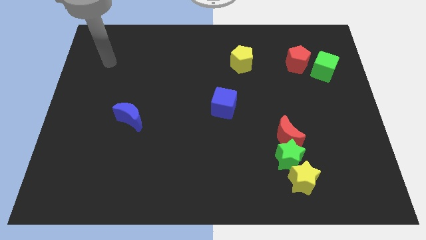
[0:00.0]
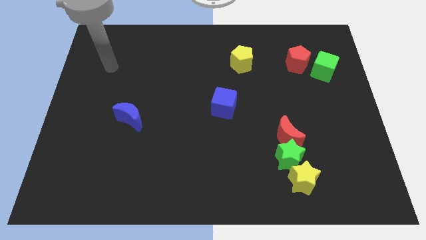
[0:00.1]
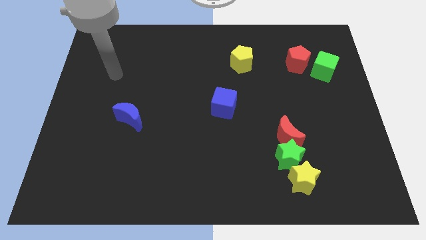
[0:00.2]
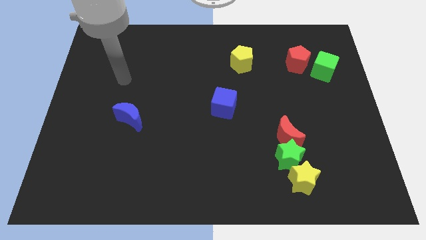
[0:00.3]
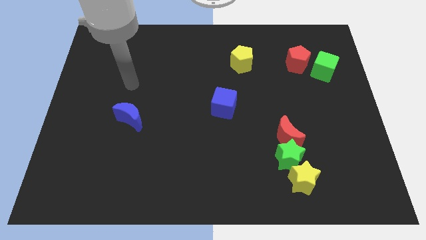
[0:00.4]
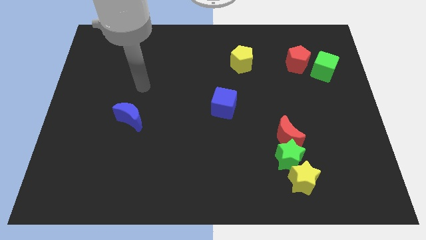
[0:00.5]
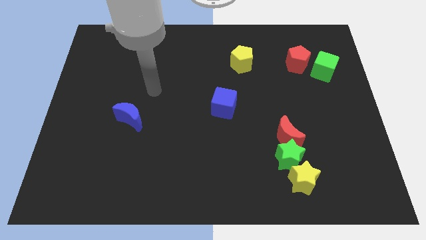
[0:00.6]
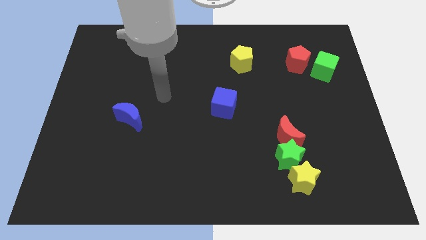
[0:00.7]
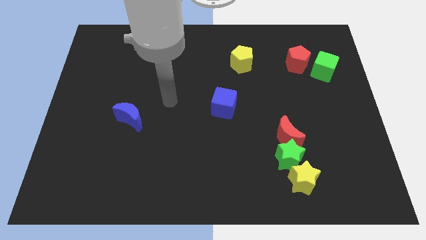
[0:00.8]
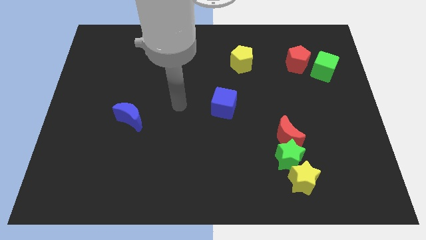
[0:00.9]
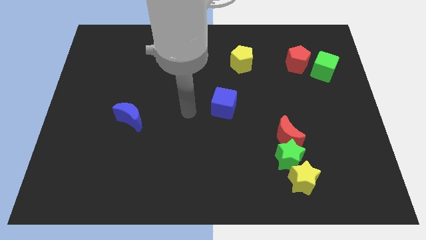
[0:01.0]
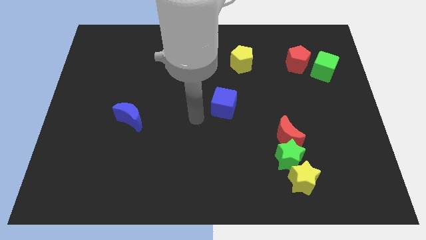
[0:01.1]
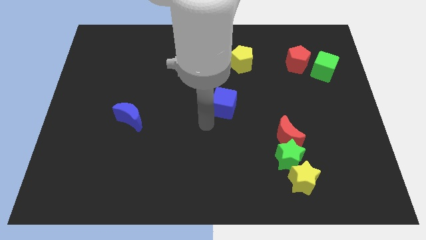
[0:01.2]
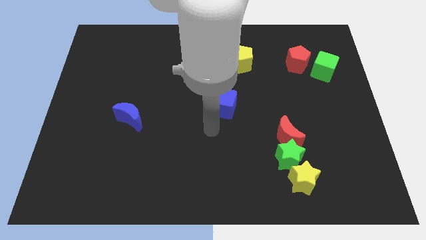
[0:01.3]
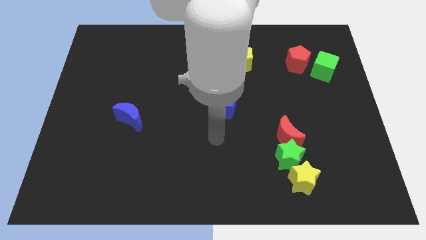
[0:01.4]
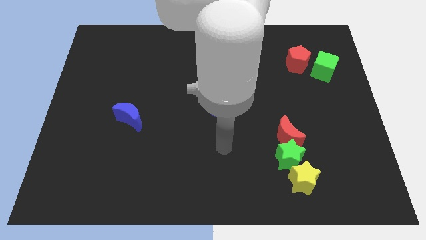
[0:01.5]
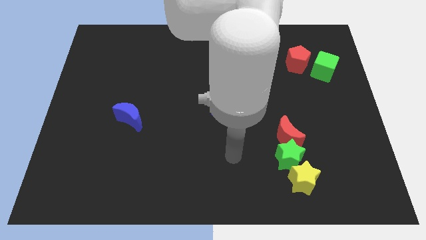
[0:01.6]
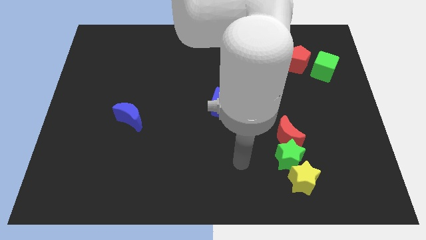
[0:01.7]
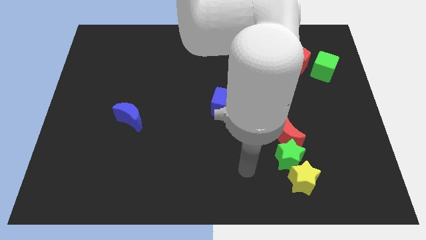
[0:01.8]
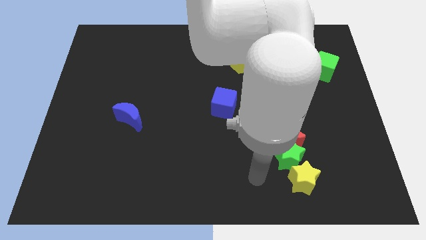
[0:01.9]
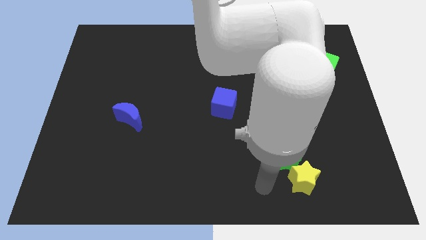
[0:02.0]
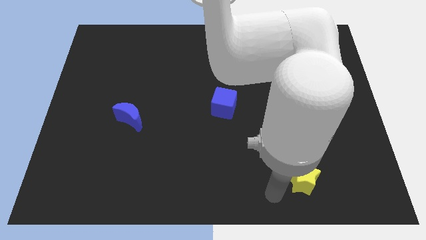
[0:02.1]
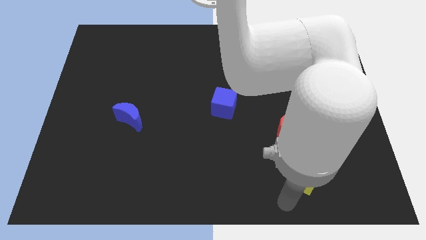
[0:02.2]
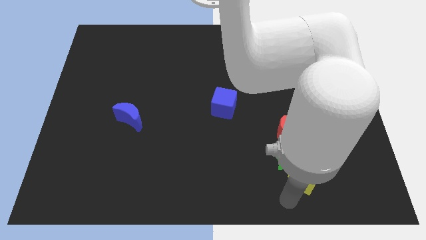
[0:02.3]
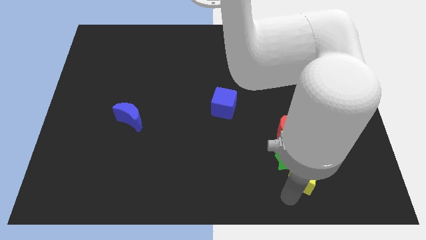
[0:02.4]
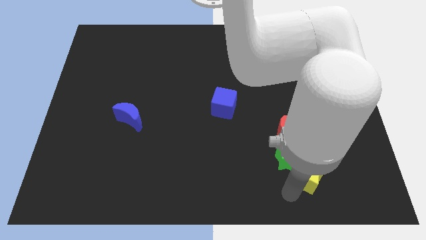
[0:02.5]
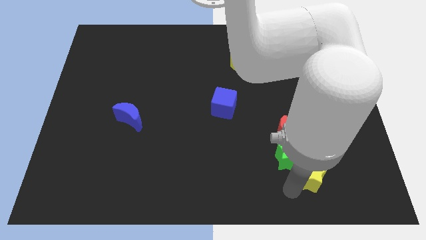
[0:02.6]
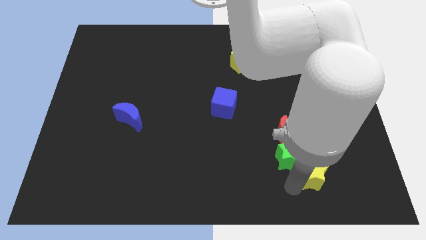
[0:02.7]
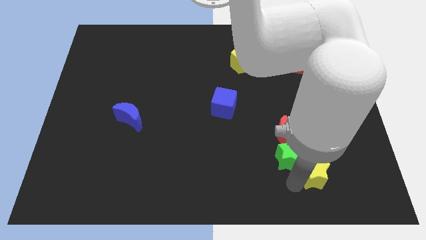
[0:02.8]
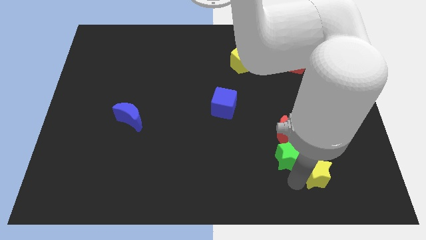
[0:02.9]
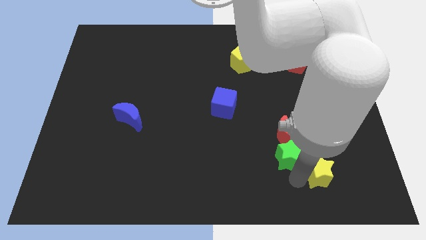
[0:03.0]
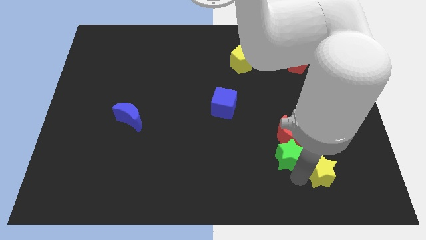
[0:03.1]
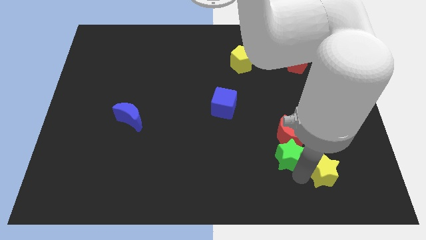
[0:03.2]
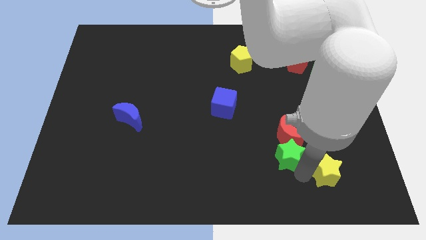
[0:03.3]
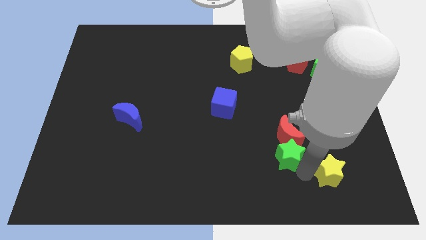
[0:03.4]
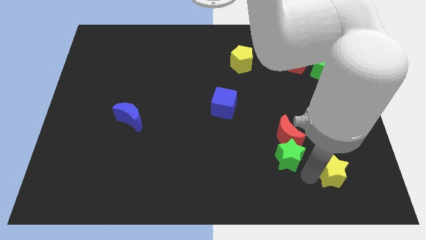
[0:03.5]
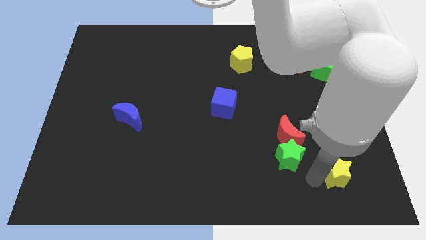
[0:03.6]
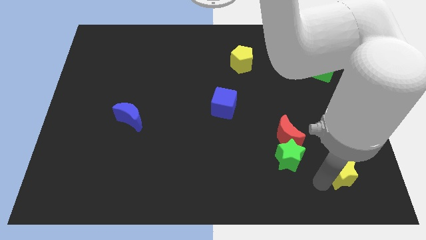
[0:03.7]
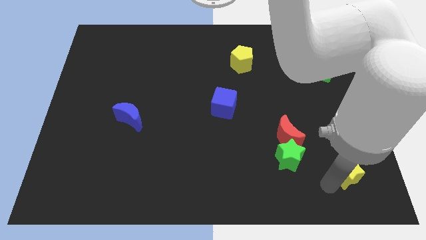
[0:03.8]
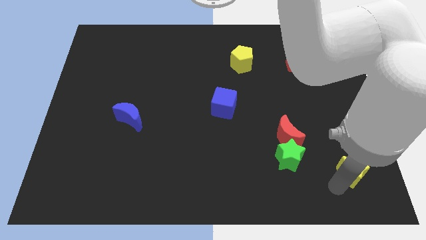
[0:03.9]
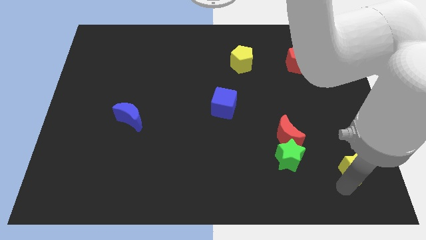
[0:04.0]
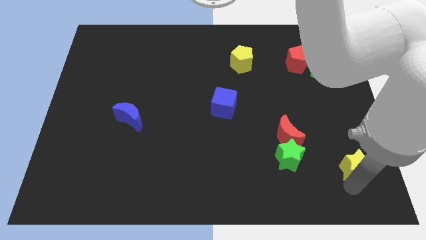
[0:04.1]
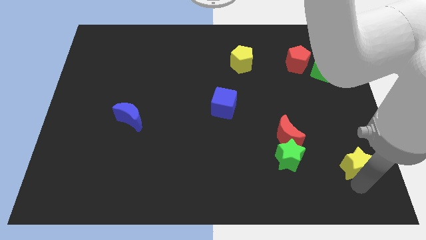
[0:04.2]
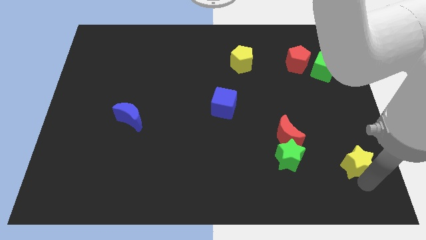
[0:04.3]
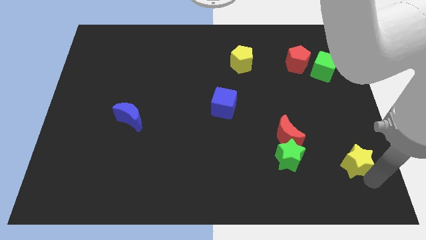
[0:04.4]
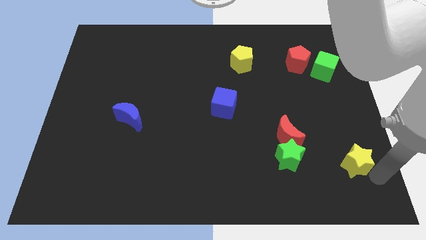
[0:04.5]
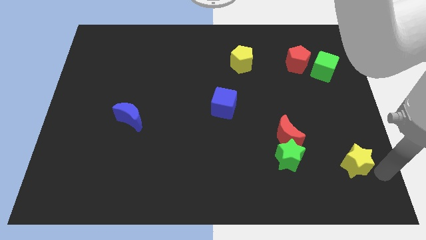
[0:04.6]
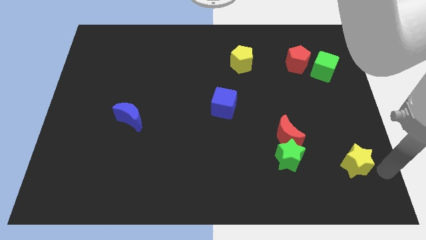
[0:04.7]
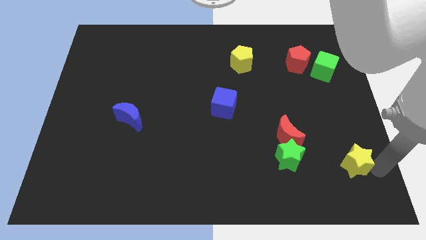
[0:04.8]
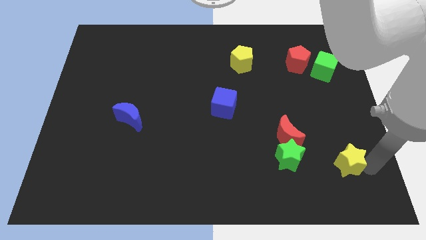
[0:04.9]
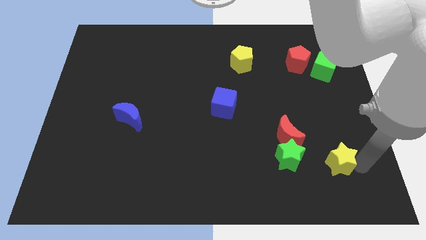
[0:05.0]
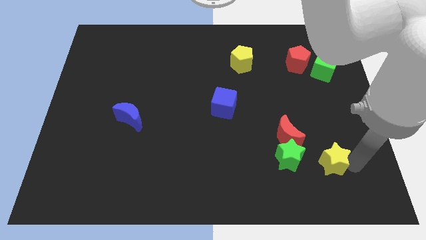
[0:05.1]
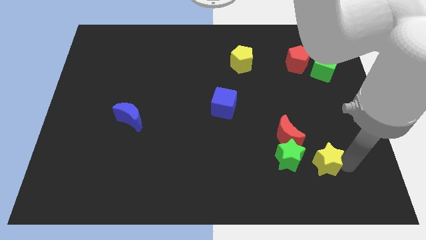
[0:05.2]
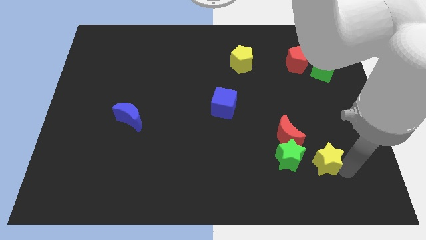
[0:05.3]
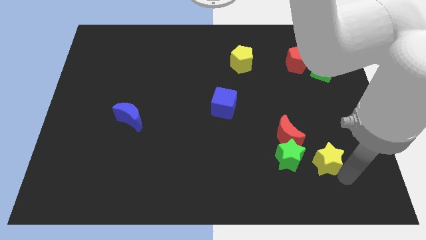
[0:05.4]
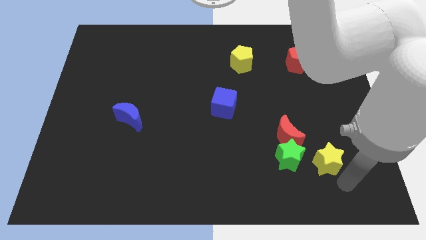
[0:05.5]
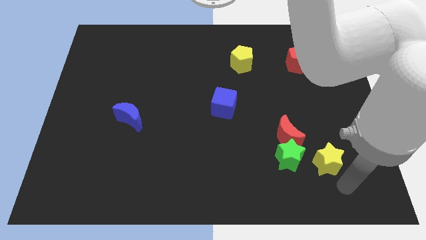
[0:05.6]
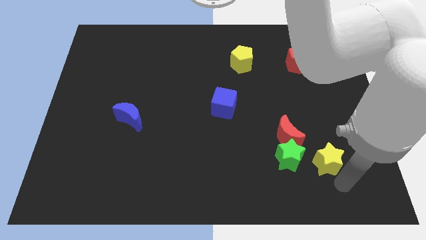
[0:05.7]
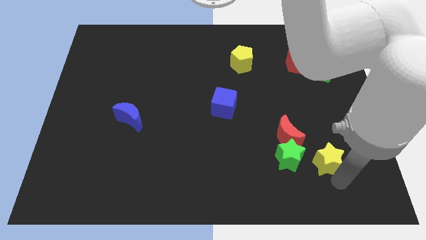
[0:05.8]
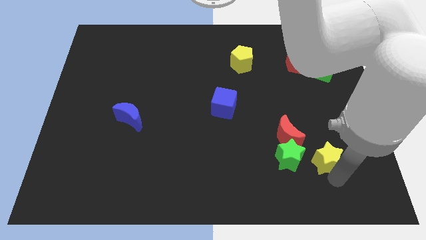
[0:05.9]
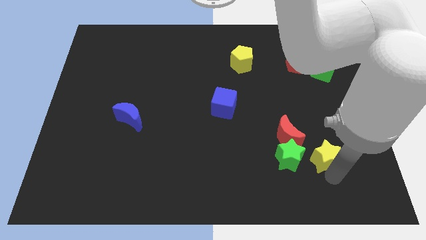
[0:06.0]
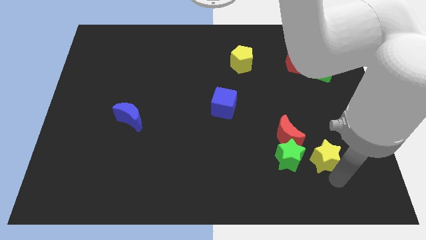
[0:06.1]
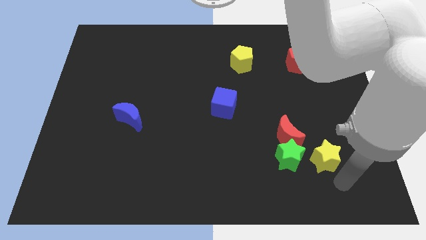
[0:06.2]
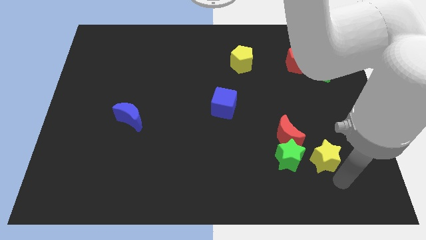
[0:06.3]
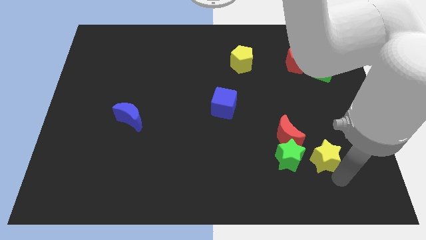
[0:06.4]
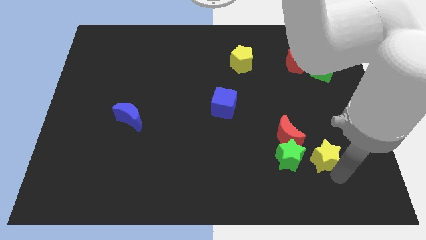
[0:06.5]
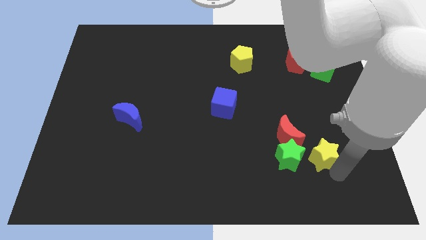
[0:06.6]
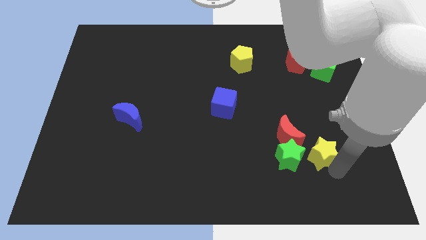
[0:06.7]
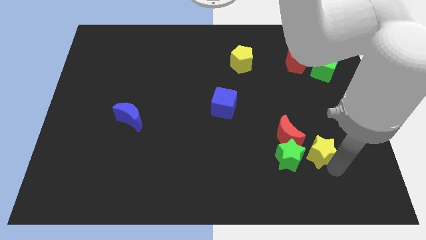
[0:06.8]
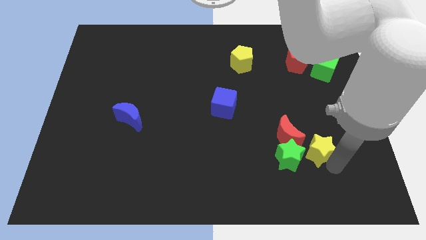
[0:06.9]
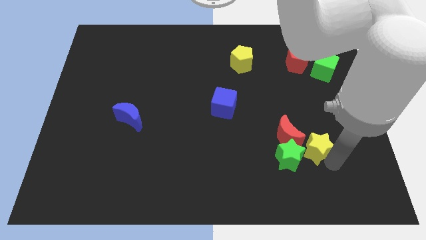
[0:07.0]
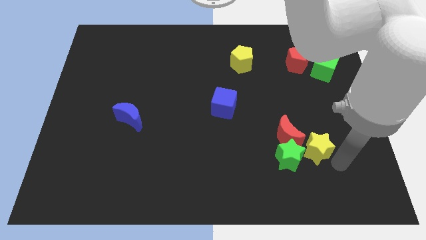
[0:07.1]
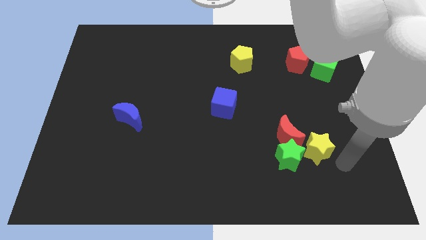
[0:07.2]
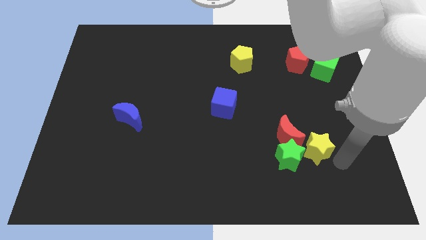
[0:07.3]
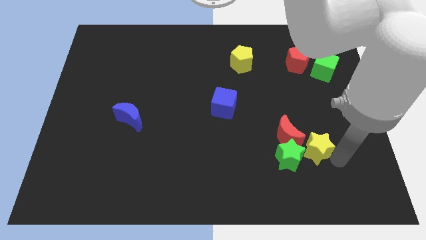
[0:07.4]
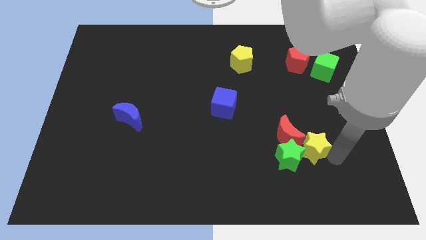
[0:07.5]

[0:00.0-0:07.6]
slide the yellow star to the red moon
